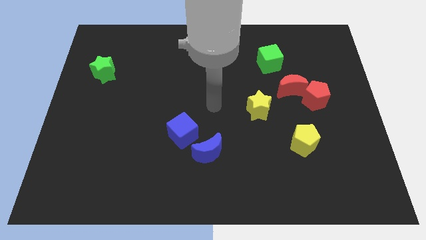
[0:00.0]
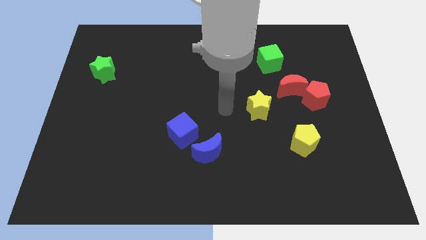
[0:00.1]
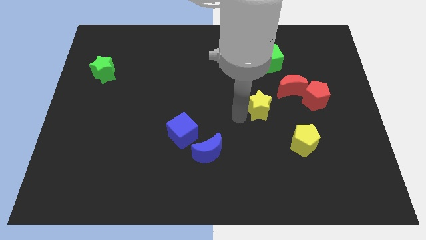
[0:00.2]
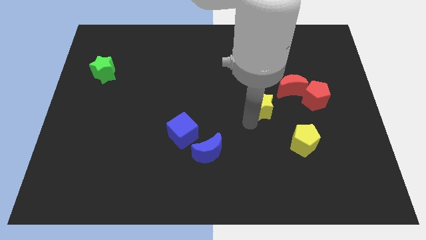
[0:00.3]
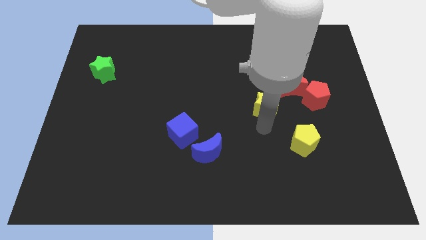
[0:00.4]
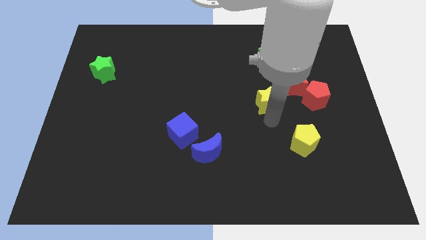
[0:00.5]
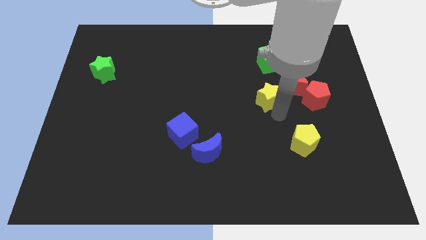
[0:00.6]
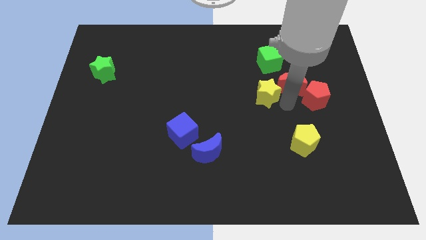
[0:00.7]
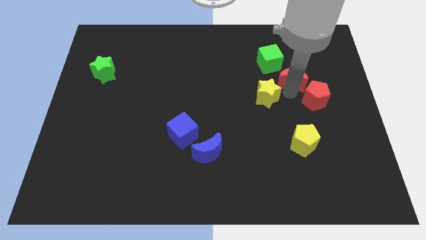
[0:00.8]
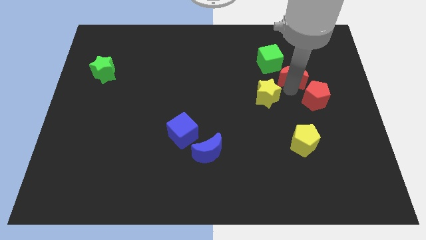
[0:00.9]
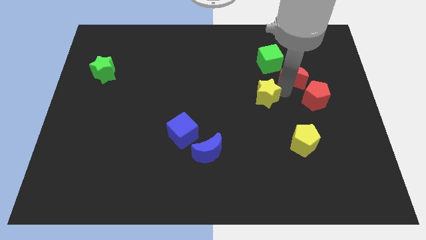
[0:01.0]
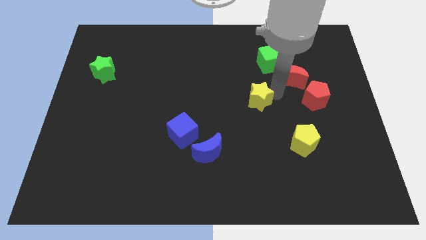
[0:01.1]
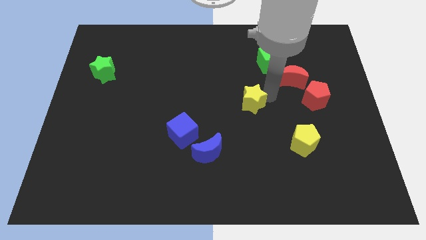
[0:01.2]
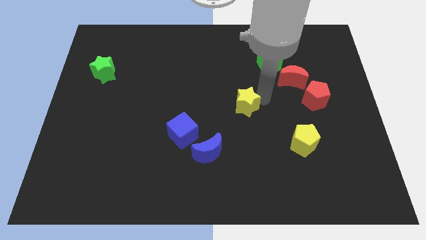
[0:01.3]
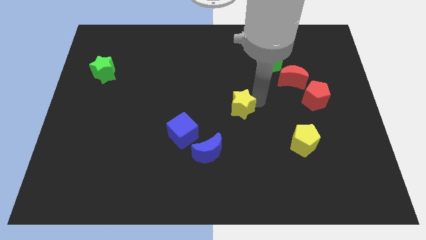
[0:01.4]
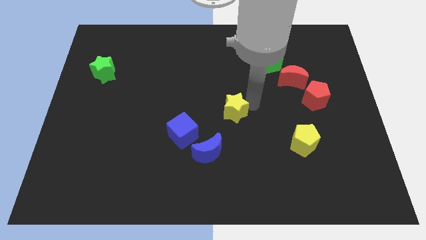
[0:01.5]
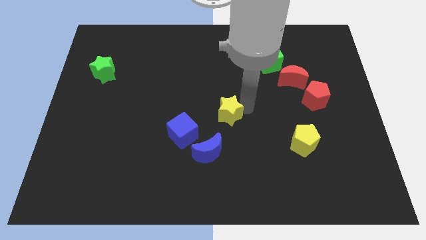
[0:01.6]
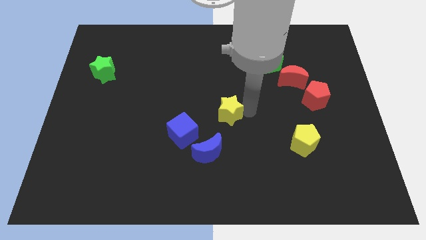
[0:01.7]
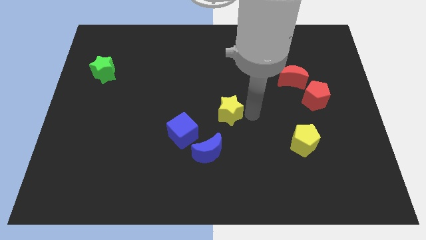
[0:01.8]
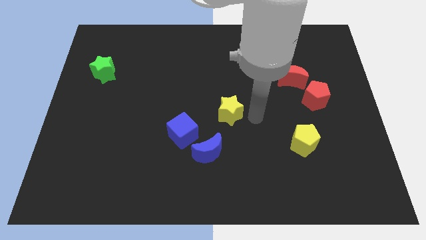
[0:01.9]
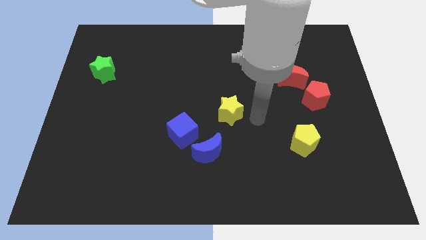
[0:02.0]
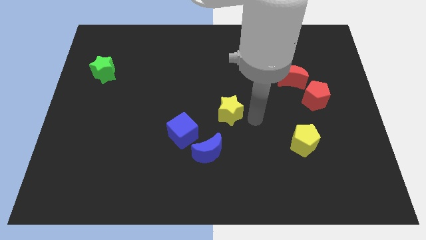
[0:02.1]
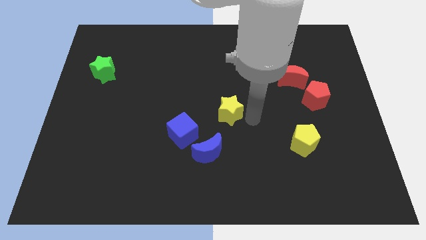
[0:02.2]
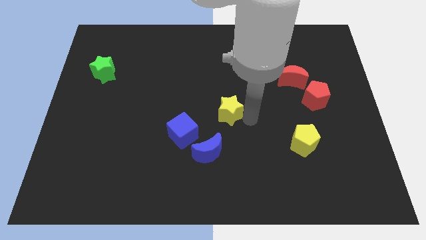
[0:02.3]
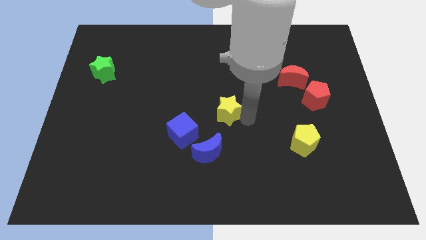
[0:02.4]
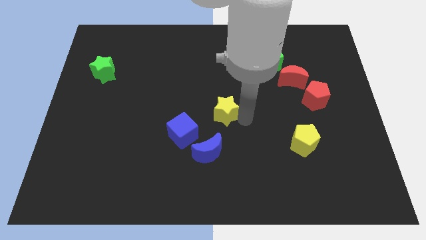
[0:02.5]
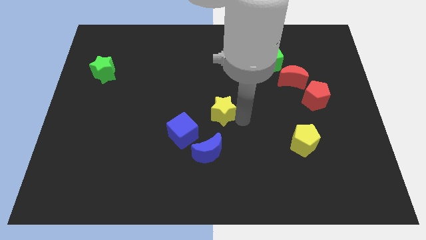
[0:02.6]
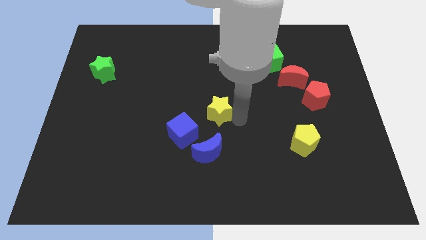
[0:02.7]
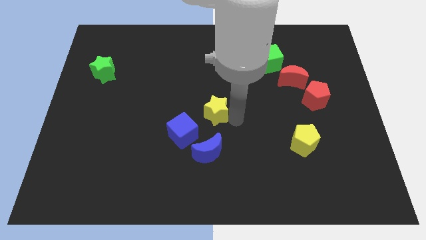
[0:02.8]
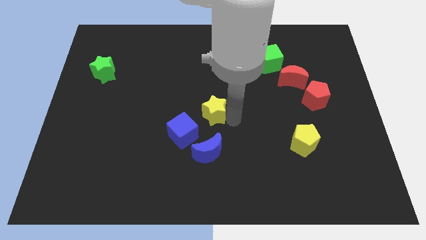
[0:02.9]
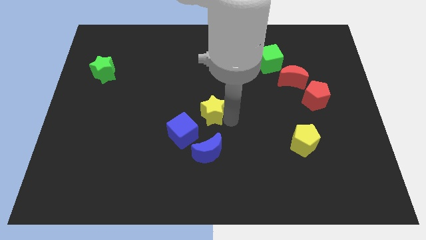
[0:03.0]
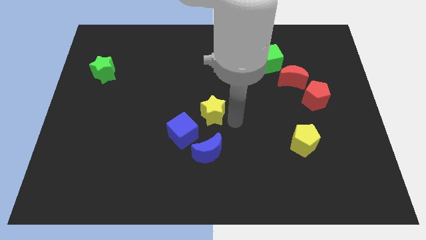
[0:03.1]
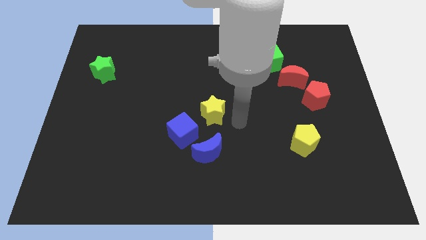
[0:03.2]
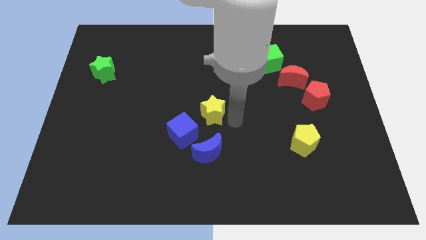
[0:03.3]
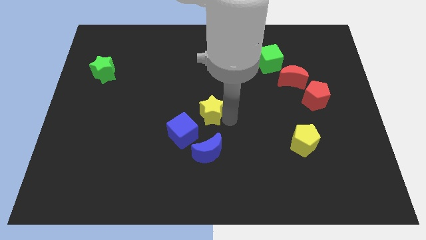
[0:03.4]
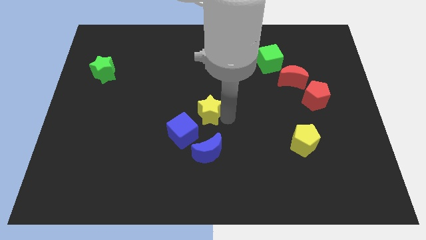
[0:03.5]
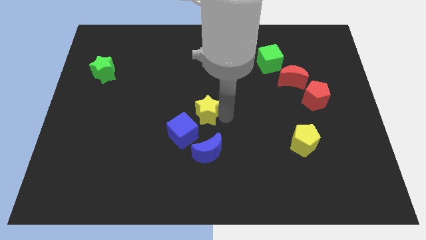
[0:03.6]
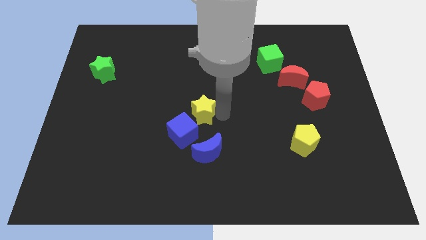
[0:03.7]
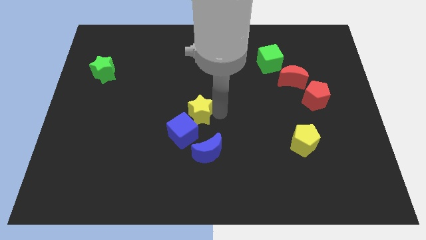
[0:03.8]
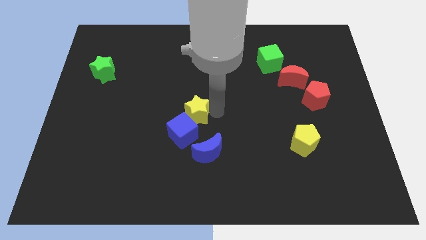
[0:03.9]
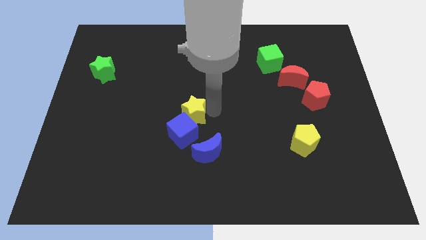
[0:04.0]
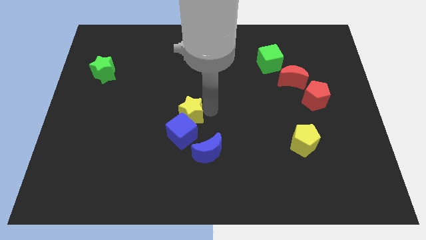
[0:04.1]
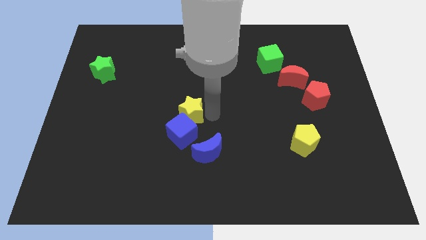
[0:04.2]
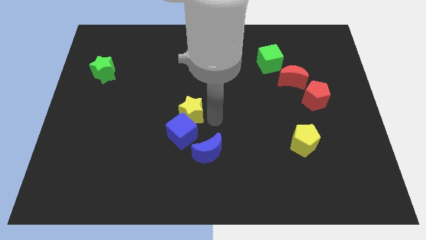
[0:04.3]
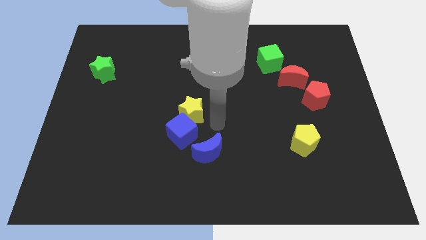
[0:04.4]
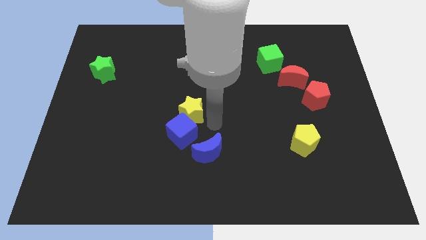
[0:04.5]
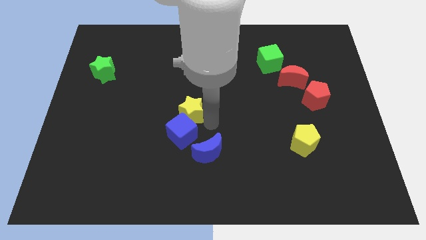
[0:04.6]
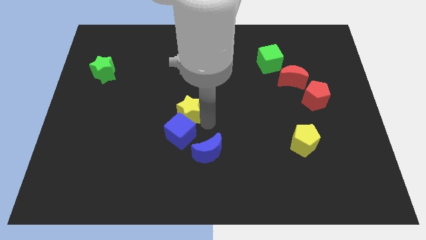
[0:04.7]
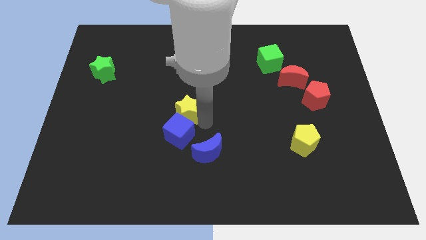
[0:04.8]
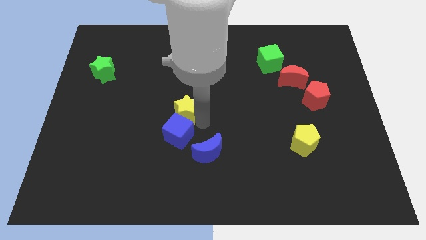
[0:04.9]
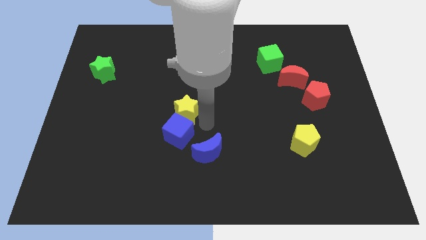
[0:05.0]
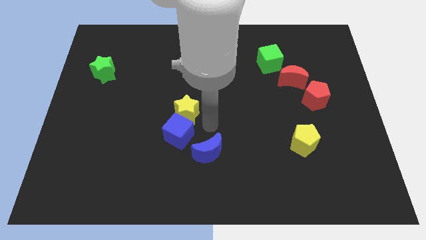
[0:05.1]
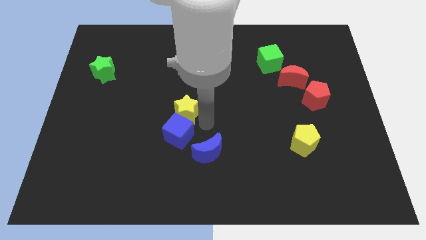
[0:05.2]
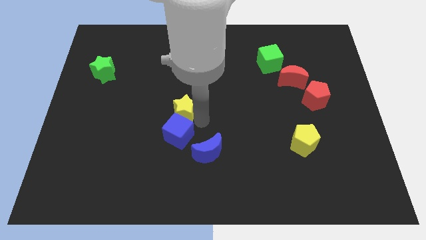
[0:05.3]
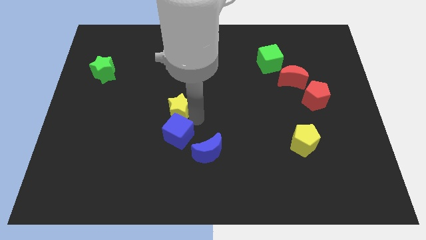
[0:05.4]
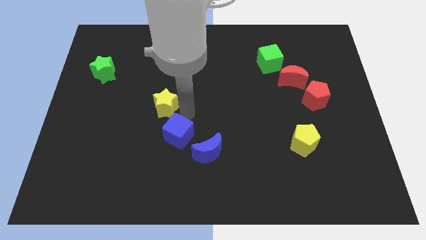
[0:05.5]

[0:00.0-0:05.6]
push the yellow star to the left

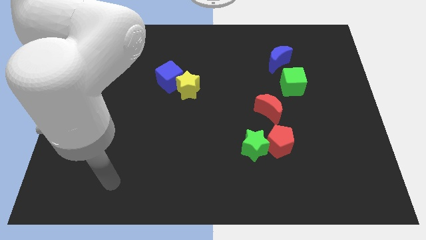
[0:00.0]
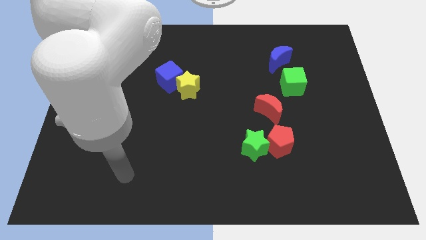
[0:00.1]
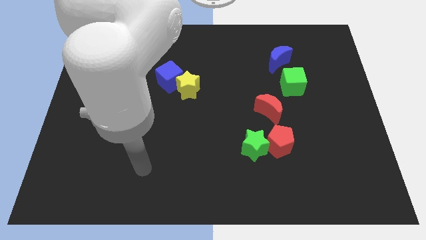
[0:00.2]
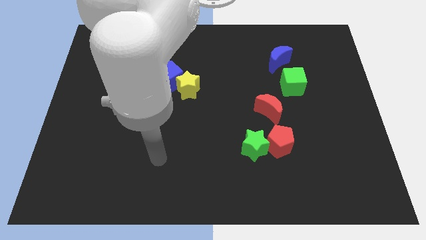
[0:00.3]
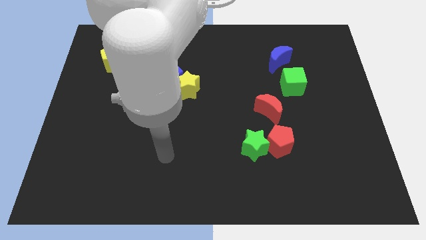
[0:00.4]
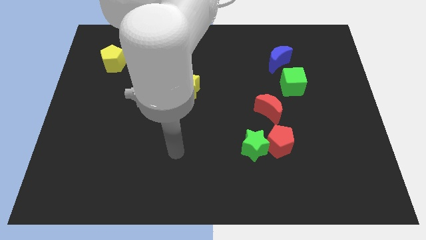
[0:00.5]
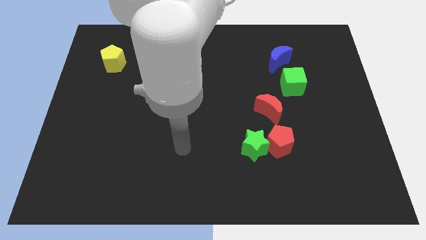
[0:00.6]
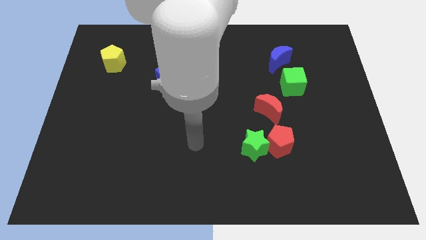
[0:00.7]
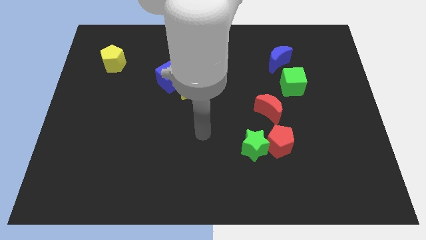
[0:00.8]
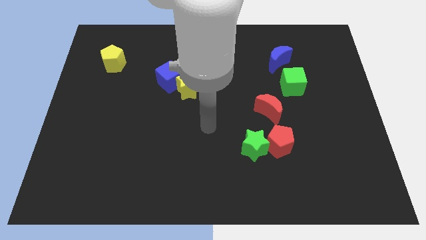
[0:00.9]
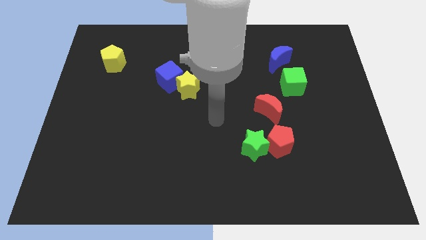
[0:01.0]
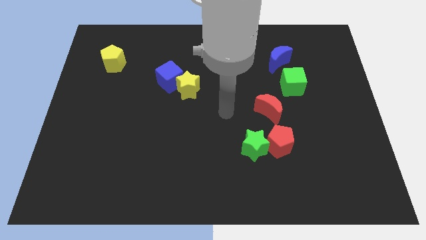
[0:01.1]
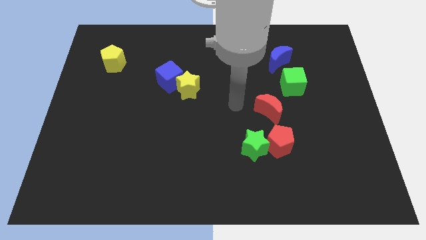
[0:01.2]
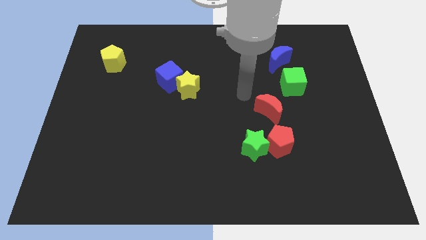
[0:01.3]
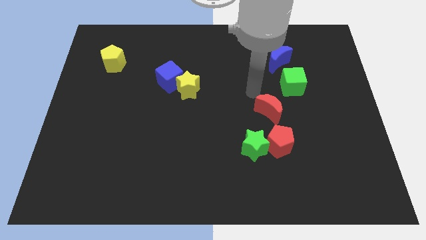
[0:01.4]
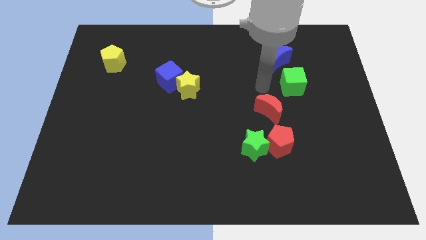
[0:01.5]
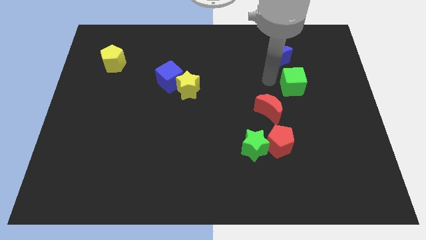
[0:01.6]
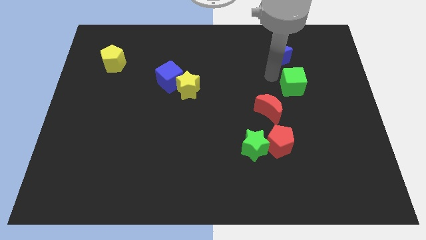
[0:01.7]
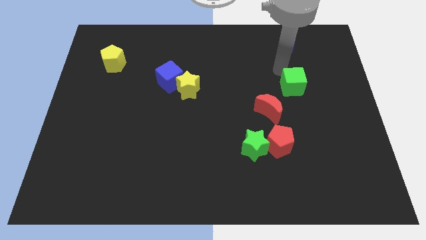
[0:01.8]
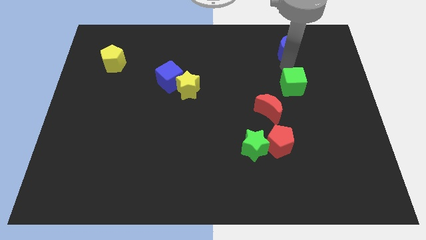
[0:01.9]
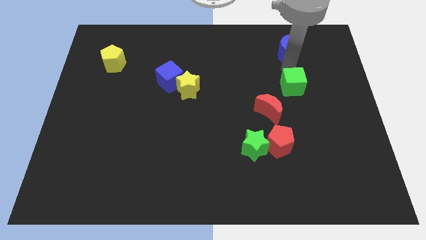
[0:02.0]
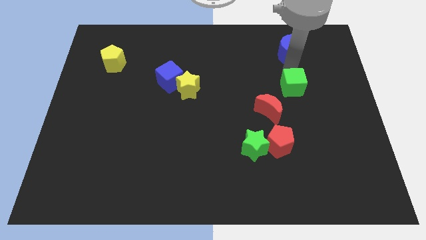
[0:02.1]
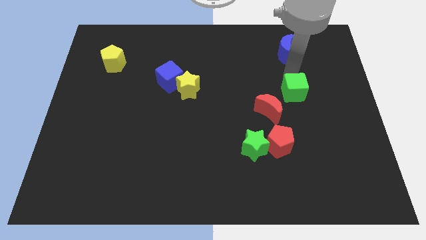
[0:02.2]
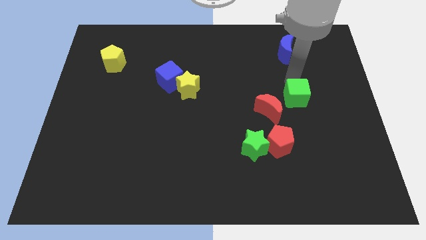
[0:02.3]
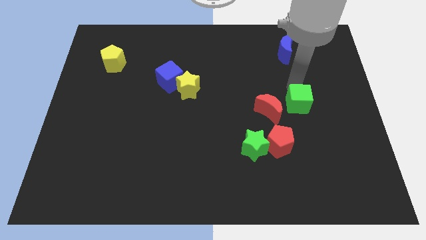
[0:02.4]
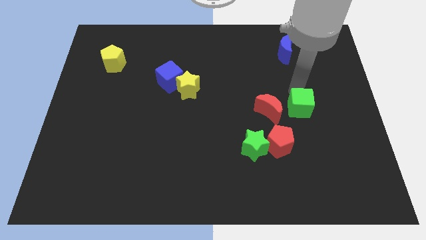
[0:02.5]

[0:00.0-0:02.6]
slightly slide the green cube down
